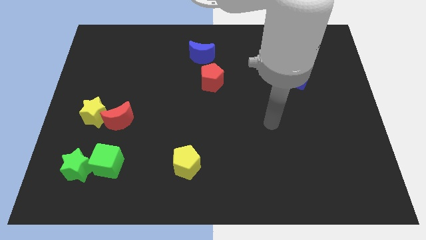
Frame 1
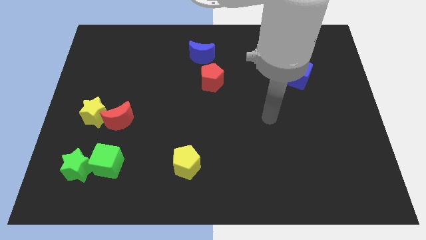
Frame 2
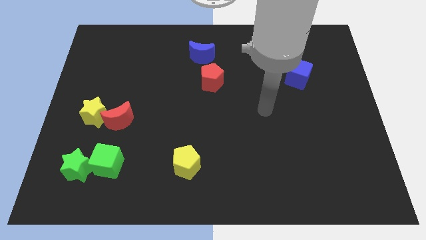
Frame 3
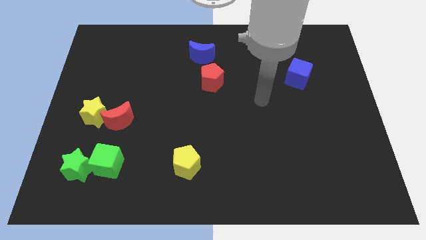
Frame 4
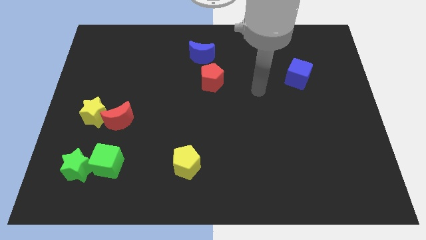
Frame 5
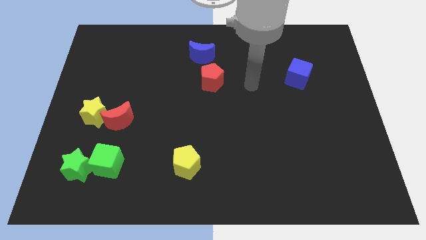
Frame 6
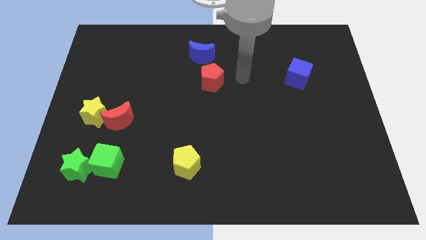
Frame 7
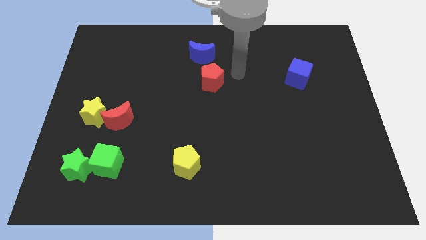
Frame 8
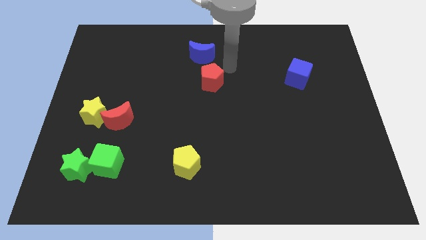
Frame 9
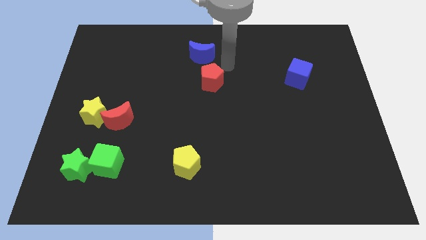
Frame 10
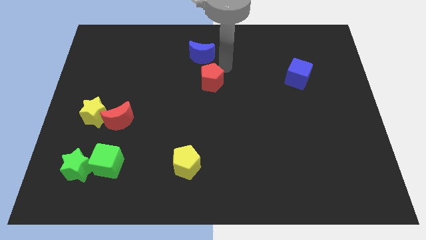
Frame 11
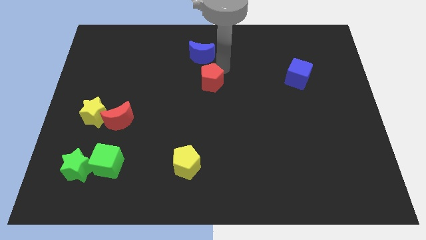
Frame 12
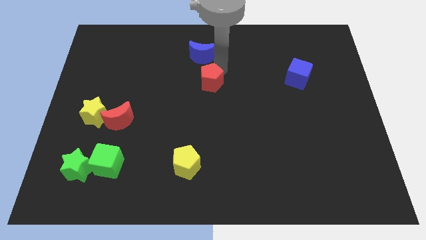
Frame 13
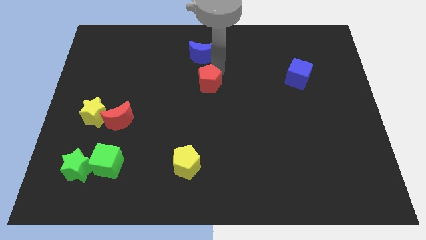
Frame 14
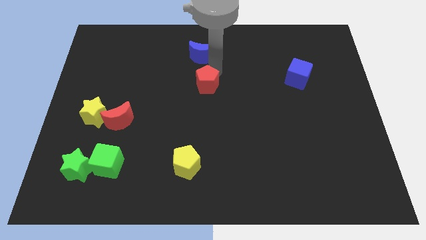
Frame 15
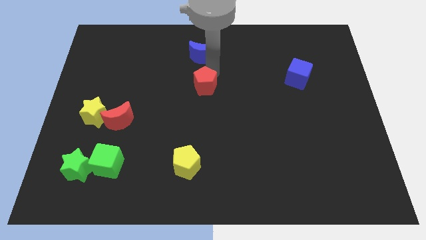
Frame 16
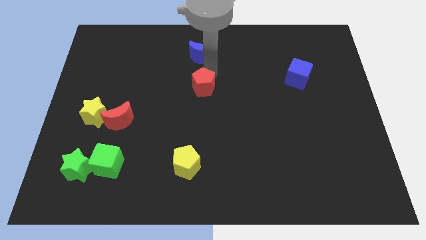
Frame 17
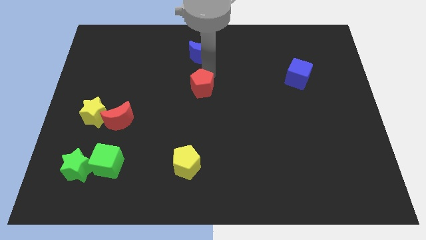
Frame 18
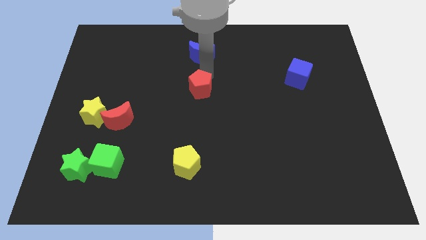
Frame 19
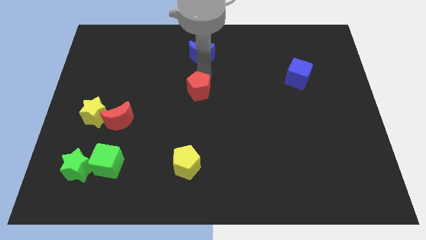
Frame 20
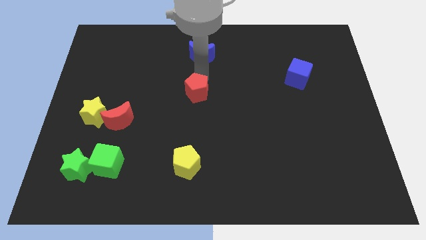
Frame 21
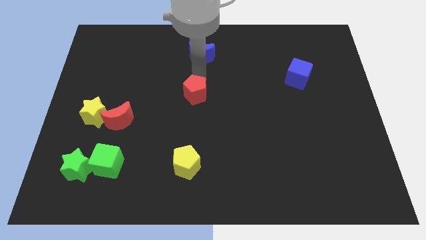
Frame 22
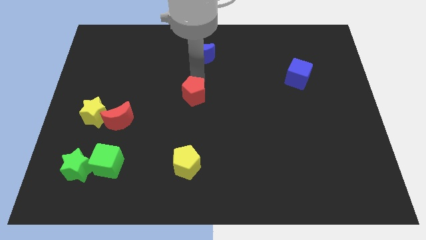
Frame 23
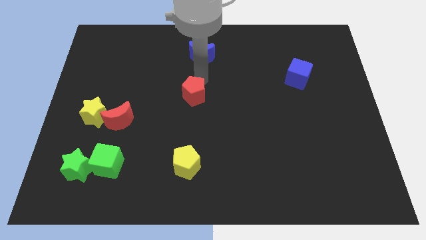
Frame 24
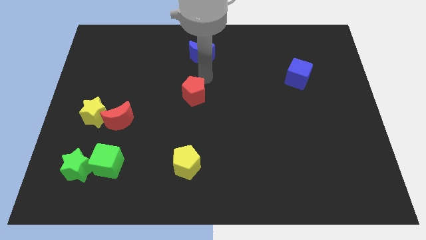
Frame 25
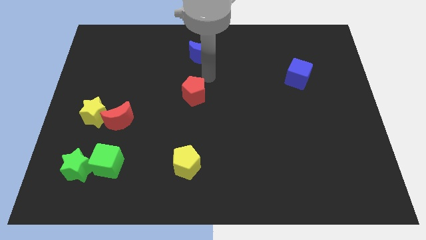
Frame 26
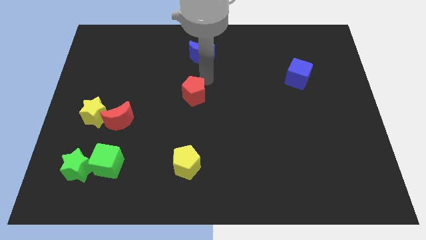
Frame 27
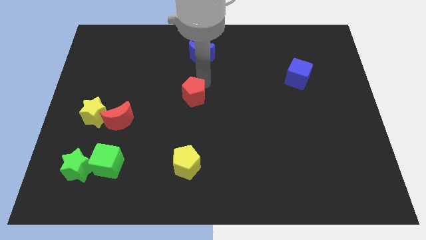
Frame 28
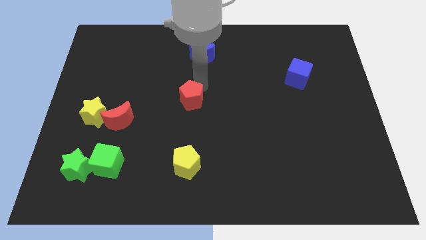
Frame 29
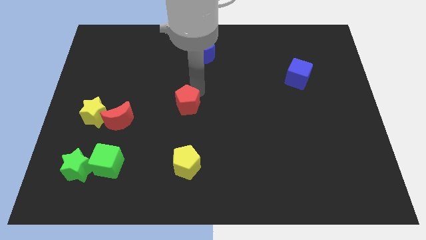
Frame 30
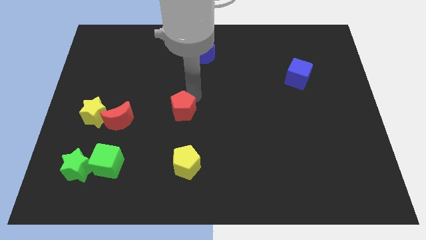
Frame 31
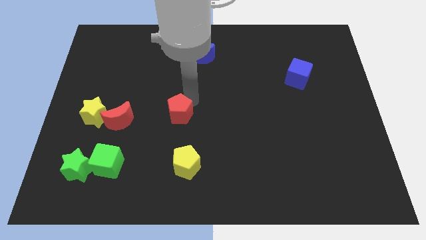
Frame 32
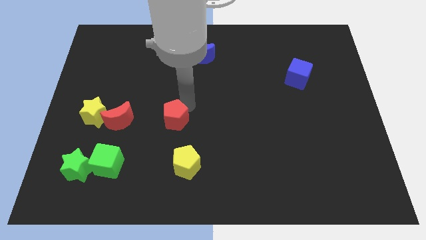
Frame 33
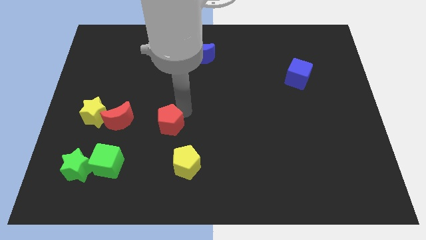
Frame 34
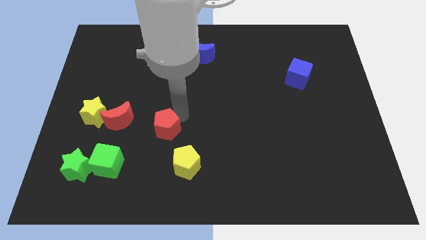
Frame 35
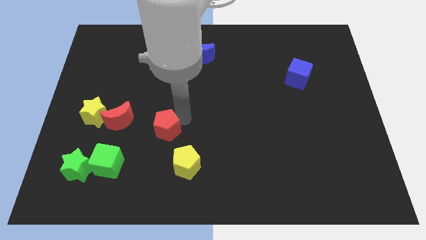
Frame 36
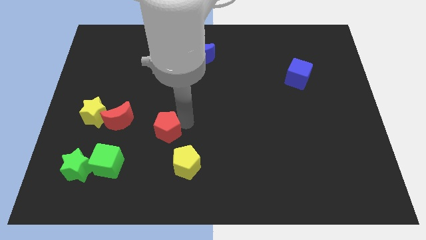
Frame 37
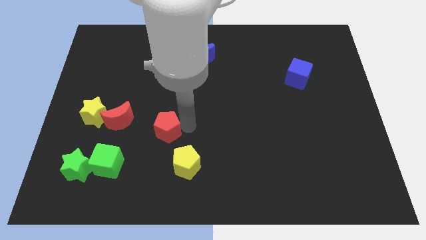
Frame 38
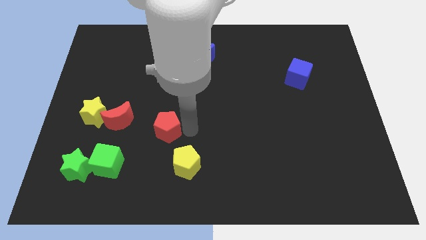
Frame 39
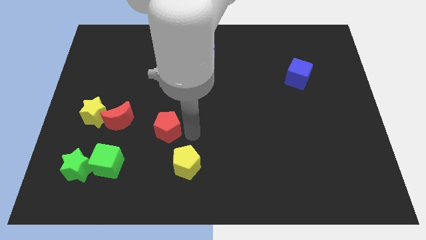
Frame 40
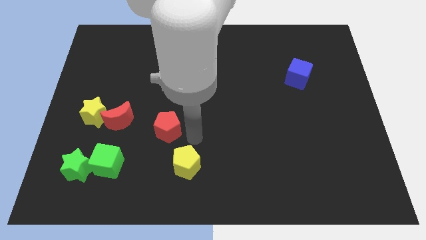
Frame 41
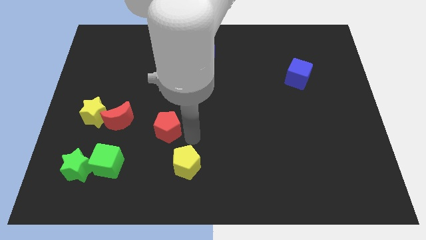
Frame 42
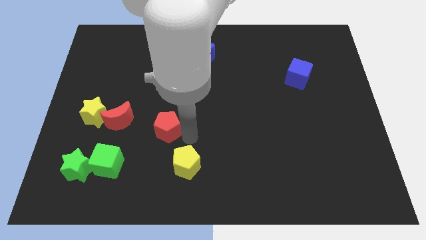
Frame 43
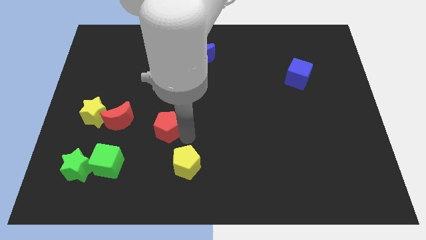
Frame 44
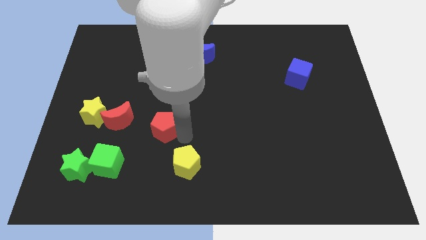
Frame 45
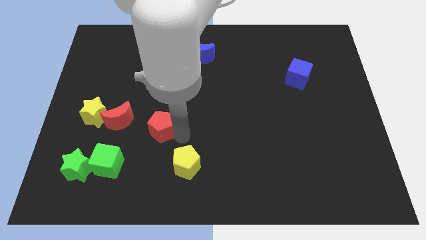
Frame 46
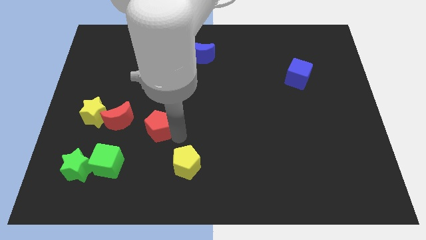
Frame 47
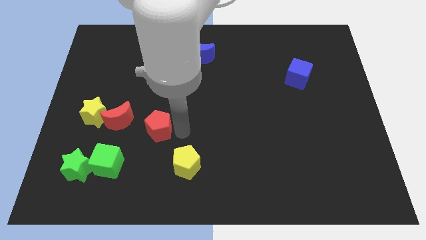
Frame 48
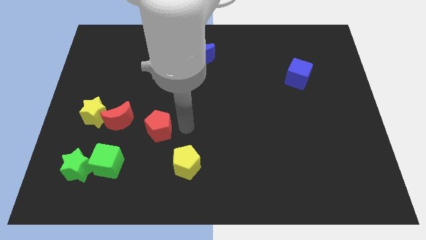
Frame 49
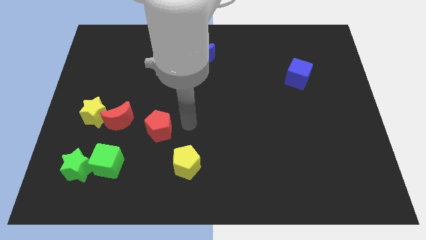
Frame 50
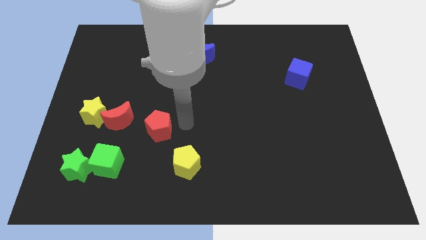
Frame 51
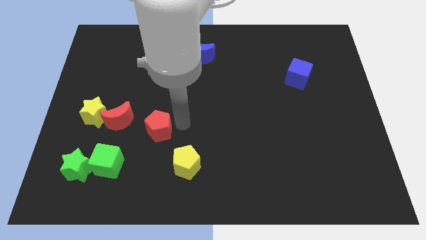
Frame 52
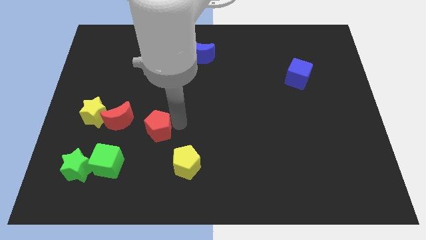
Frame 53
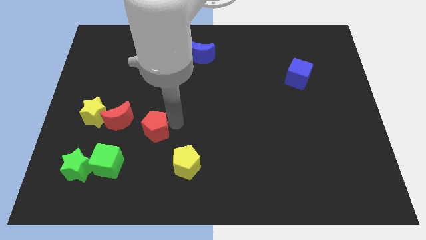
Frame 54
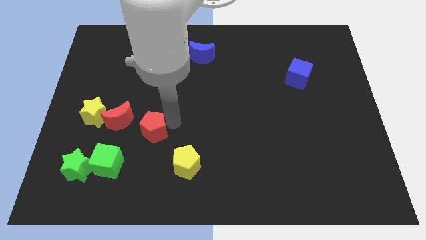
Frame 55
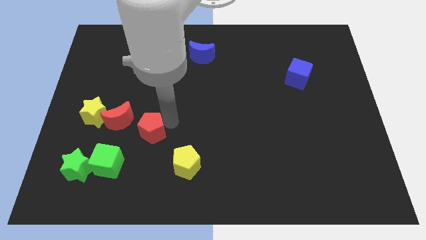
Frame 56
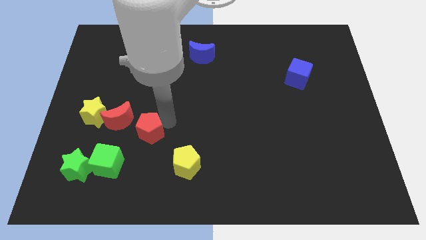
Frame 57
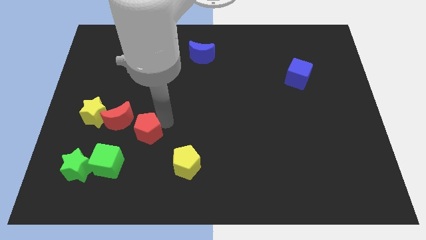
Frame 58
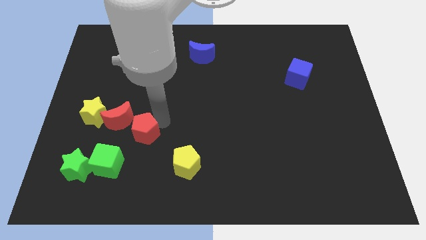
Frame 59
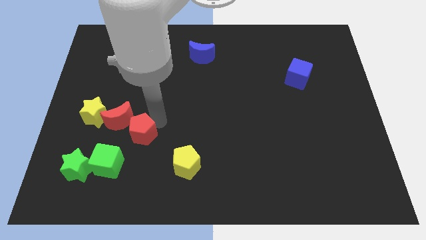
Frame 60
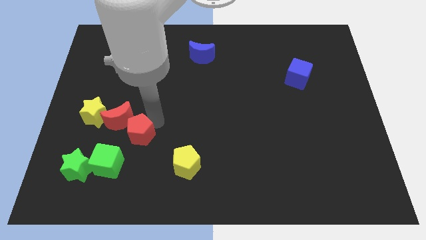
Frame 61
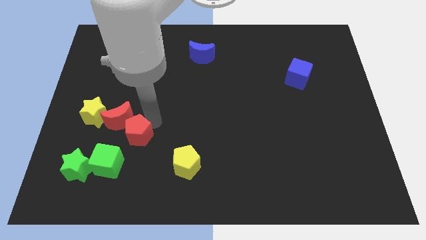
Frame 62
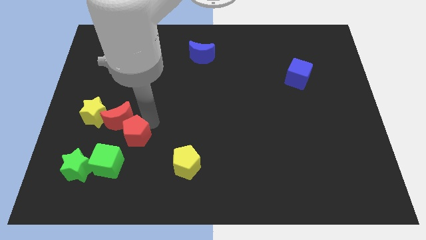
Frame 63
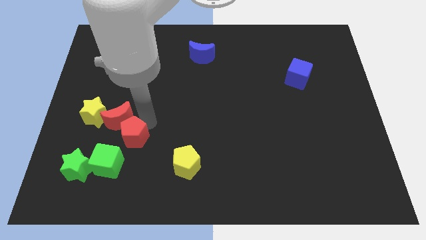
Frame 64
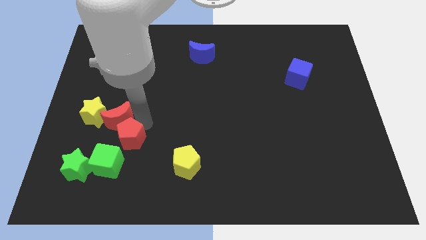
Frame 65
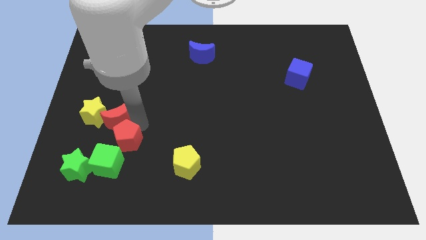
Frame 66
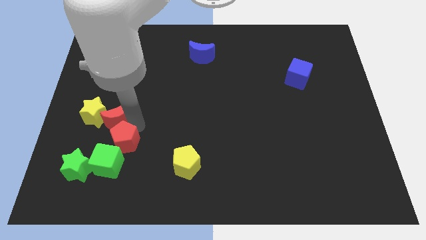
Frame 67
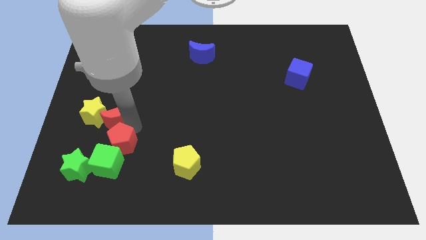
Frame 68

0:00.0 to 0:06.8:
push the red pentagon towards the green cube

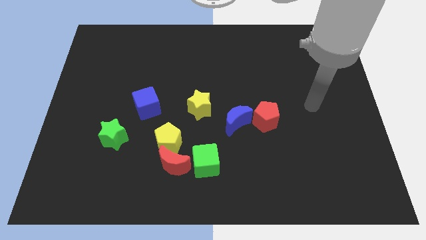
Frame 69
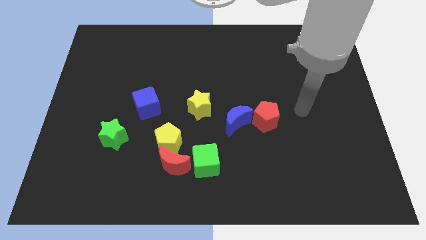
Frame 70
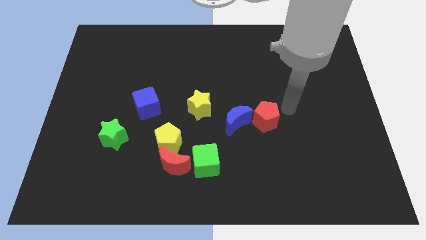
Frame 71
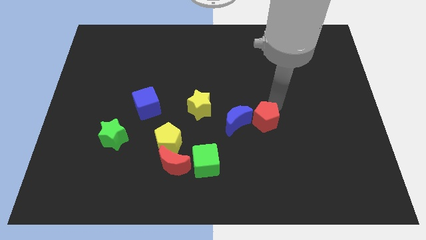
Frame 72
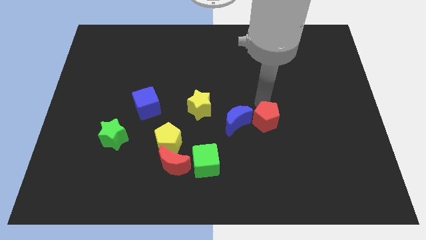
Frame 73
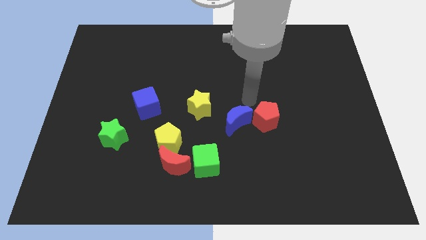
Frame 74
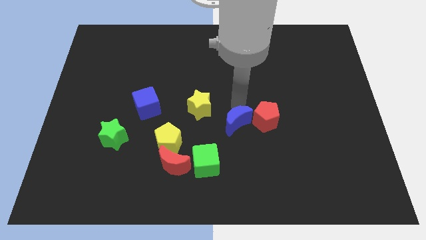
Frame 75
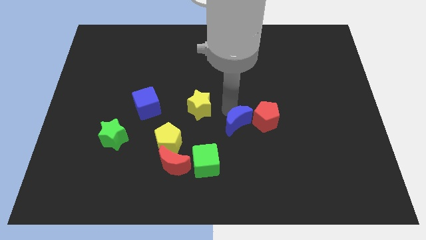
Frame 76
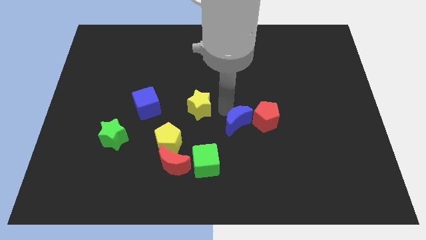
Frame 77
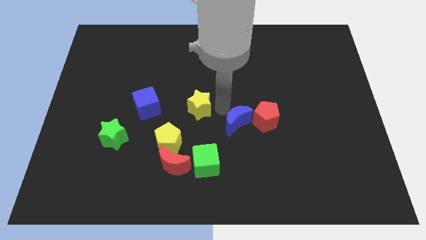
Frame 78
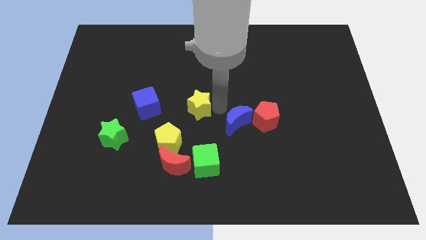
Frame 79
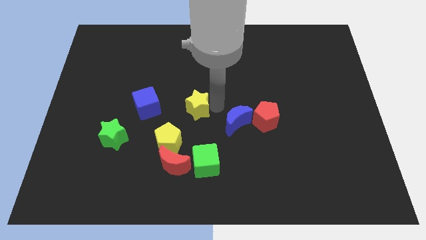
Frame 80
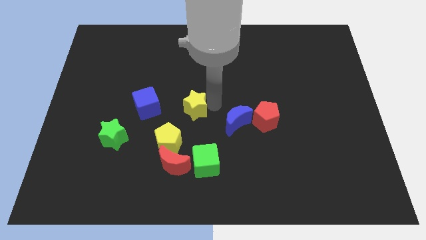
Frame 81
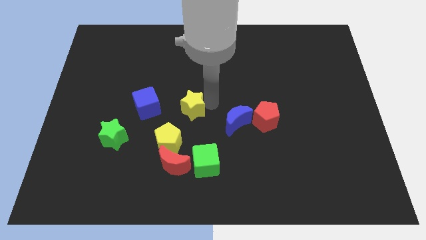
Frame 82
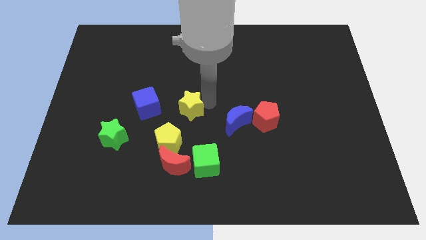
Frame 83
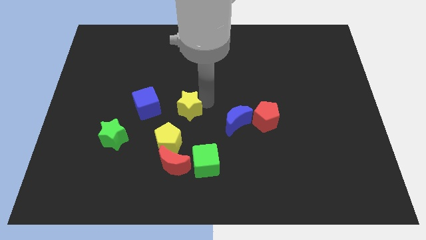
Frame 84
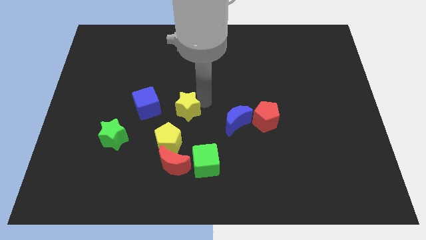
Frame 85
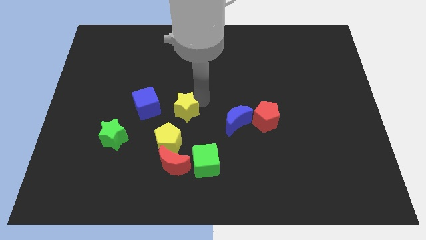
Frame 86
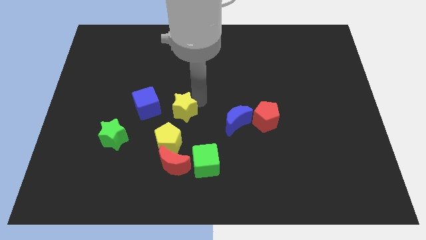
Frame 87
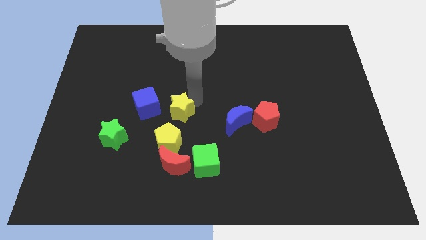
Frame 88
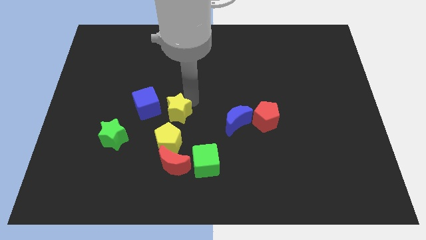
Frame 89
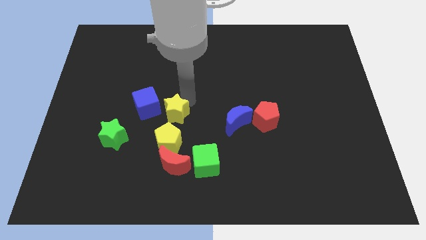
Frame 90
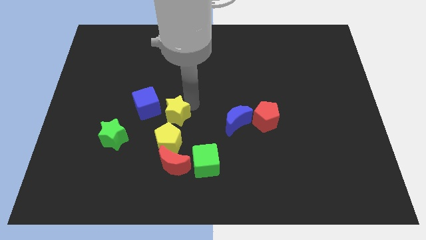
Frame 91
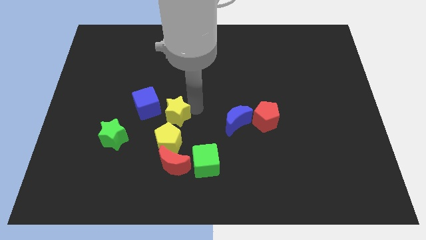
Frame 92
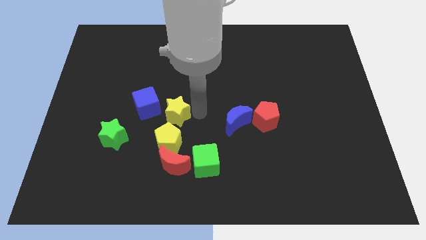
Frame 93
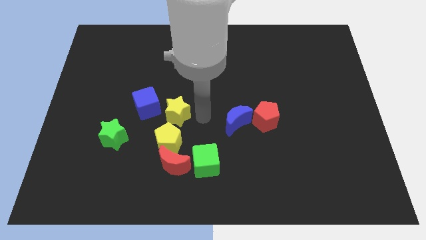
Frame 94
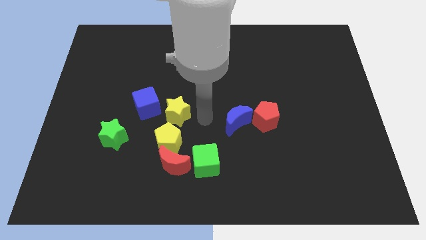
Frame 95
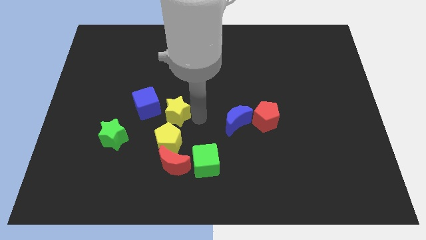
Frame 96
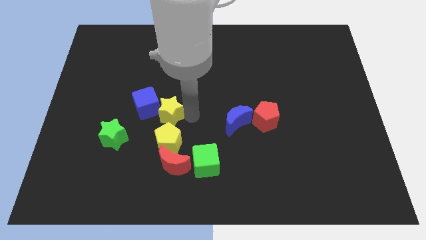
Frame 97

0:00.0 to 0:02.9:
push the yellow star next to the blue cube
